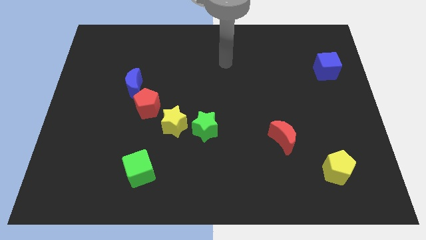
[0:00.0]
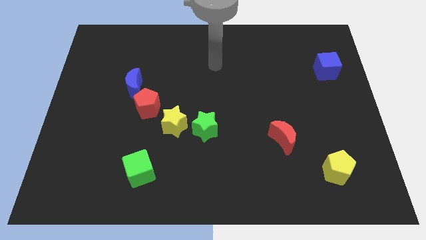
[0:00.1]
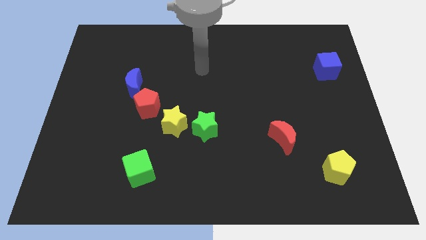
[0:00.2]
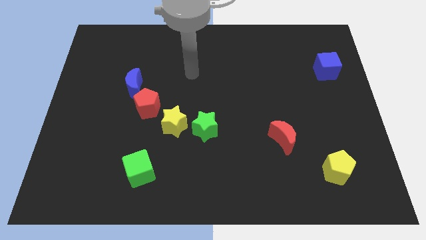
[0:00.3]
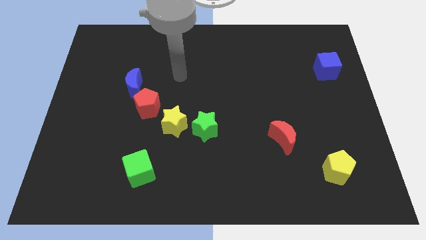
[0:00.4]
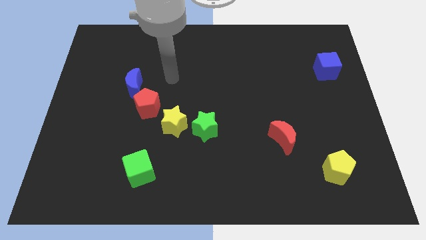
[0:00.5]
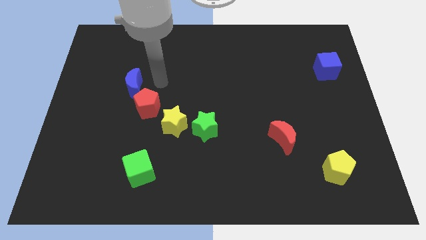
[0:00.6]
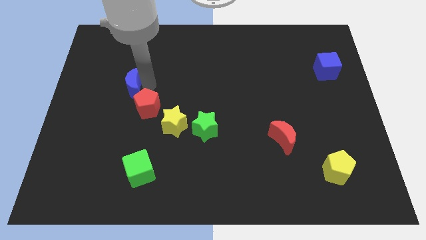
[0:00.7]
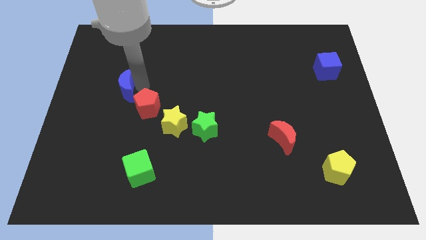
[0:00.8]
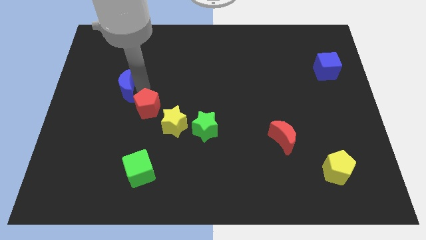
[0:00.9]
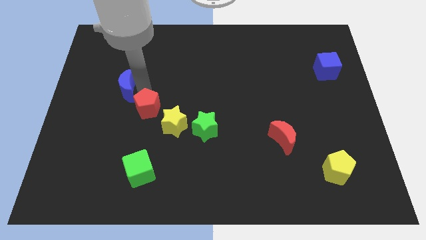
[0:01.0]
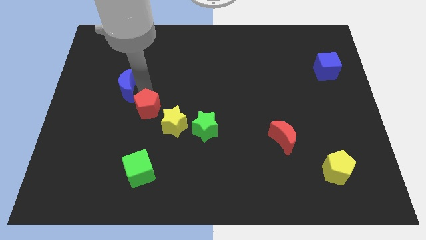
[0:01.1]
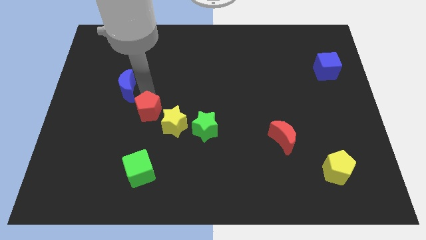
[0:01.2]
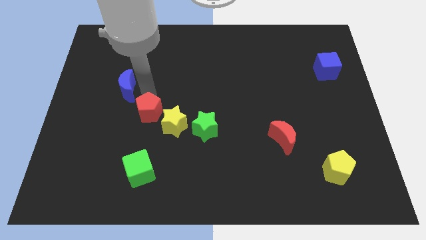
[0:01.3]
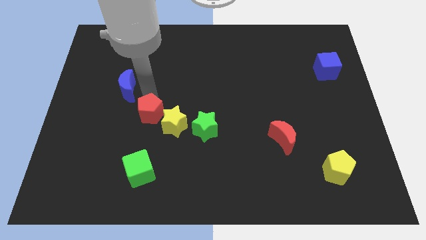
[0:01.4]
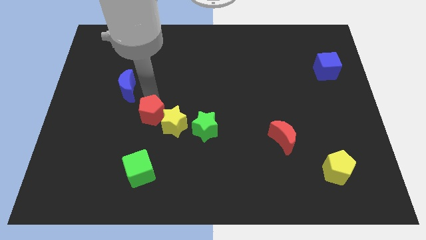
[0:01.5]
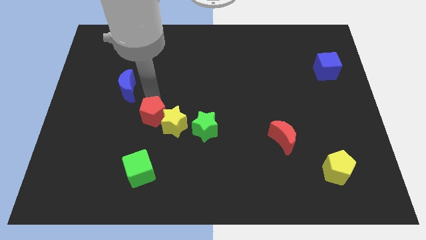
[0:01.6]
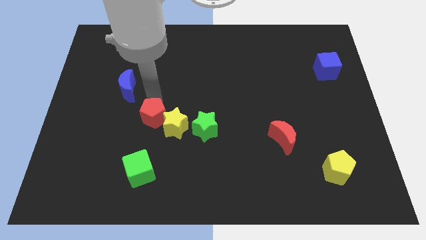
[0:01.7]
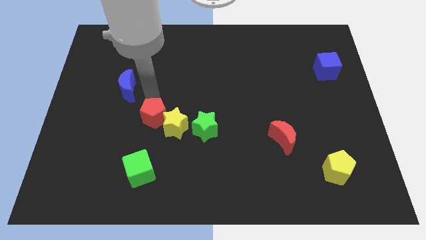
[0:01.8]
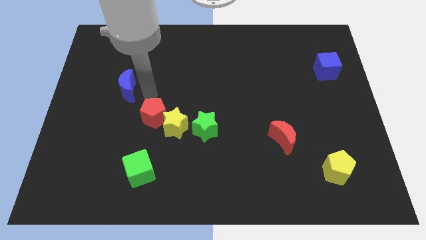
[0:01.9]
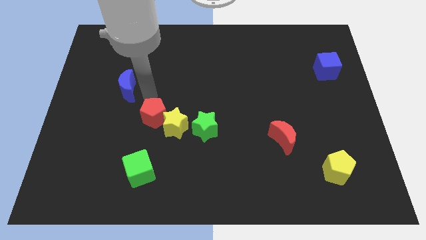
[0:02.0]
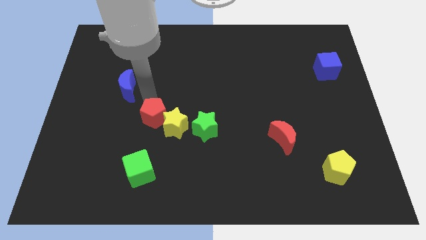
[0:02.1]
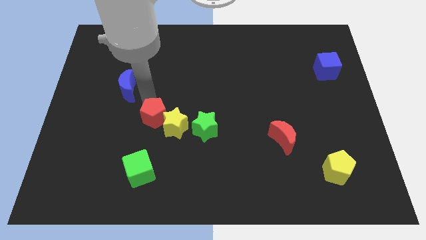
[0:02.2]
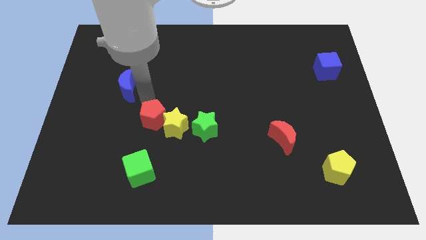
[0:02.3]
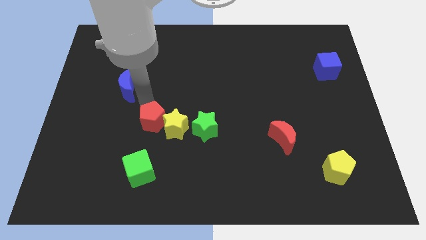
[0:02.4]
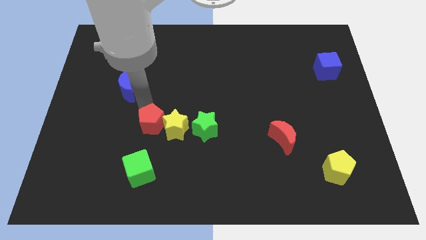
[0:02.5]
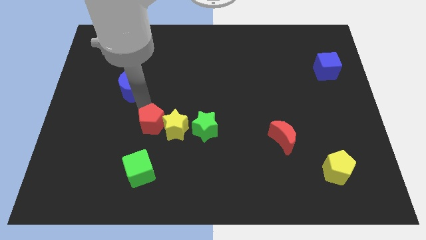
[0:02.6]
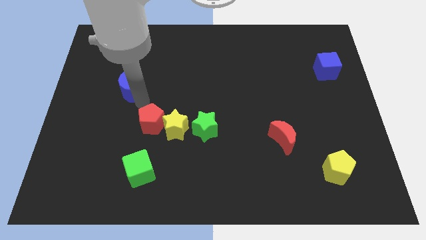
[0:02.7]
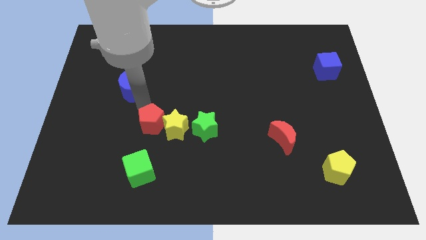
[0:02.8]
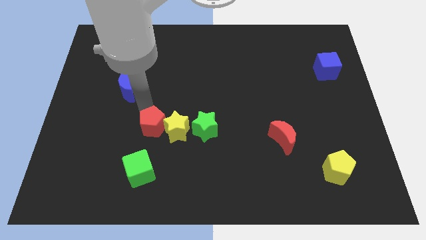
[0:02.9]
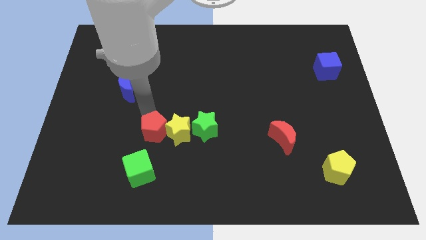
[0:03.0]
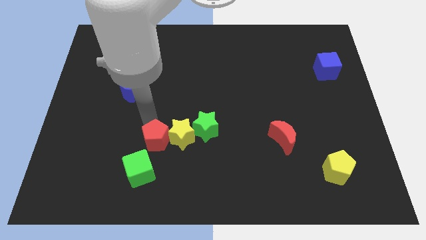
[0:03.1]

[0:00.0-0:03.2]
slide the red pentagon a little bit diagonally down and to the right

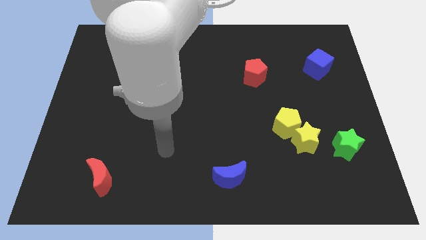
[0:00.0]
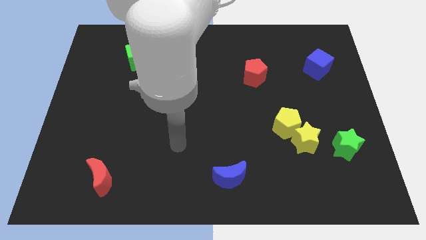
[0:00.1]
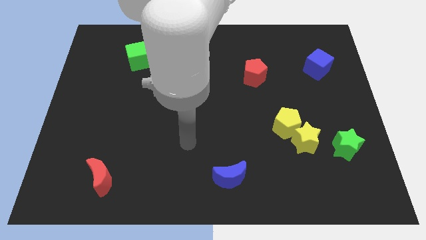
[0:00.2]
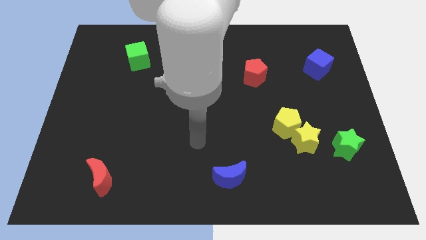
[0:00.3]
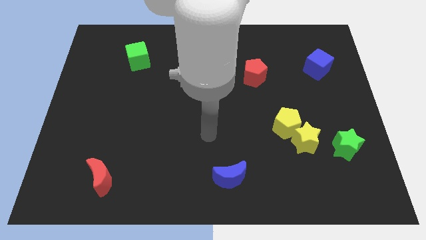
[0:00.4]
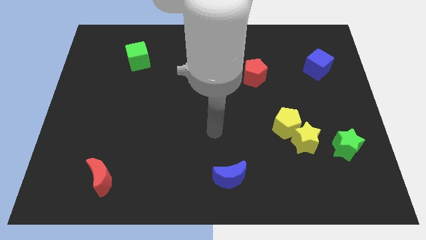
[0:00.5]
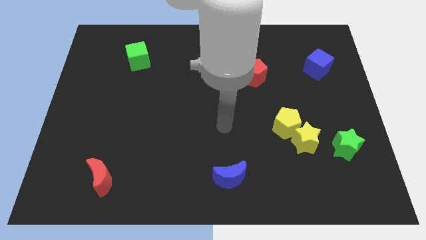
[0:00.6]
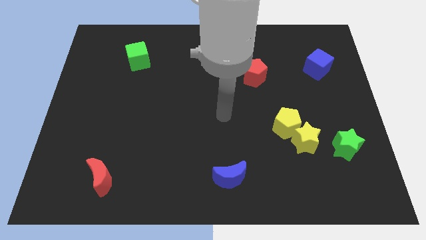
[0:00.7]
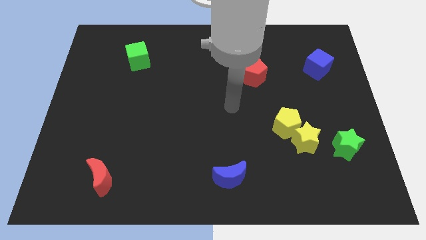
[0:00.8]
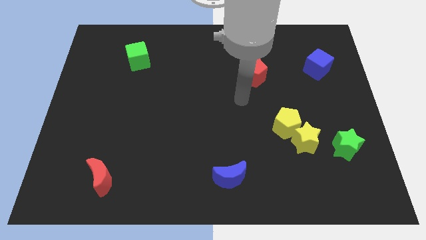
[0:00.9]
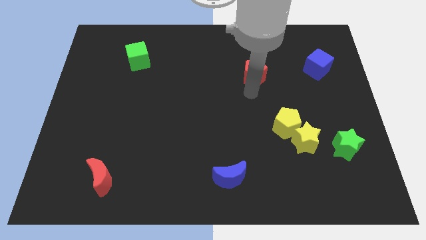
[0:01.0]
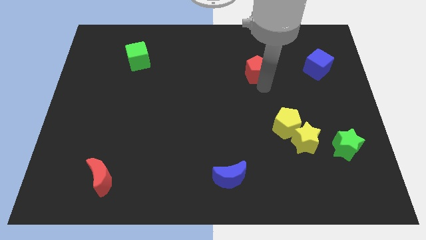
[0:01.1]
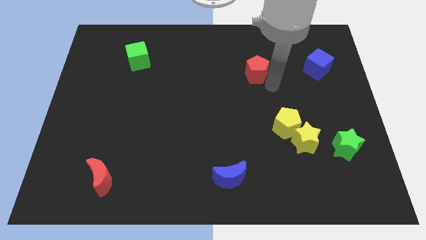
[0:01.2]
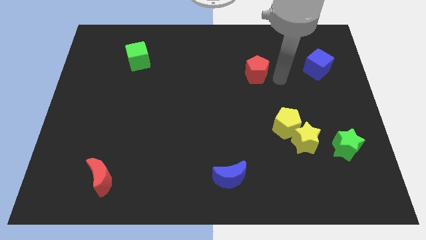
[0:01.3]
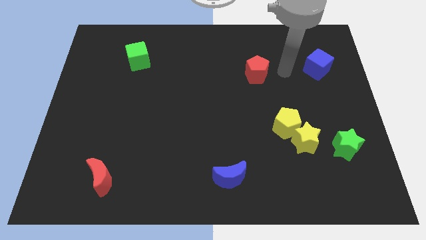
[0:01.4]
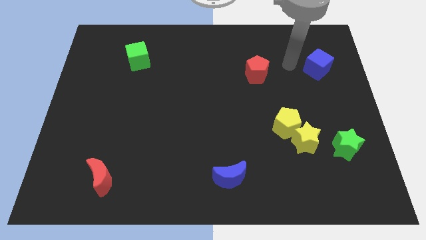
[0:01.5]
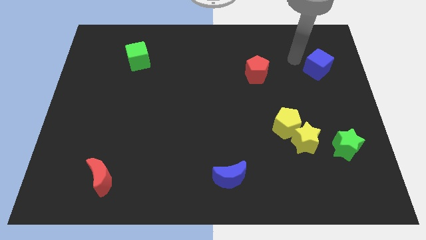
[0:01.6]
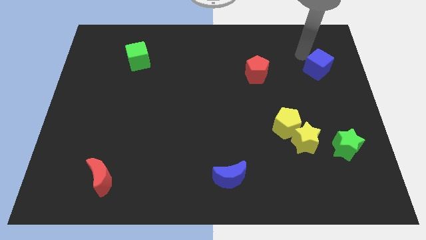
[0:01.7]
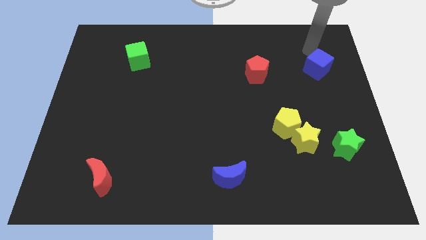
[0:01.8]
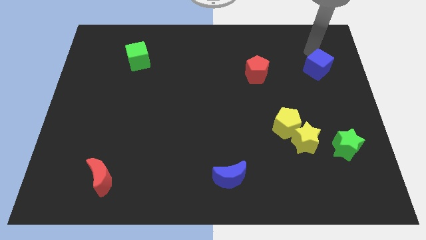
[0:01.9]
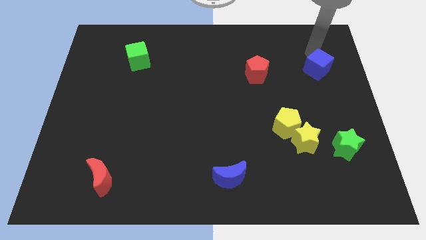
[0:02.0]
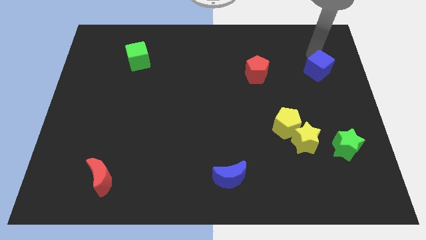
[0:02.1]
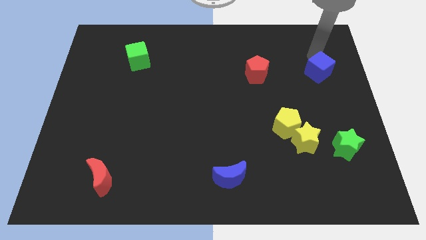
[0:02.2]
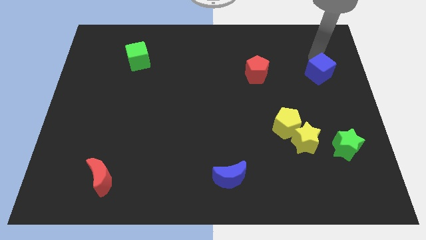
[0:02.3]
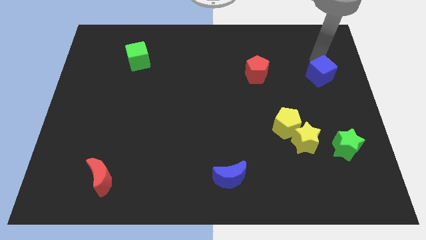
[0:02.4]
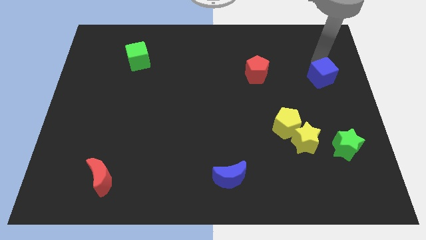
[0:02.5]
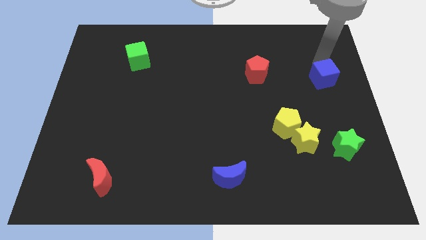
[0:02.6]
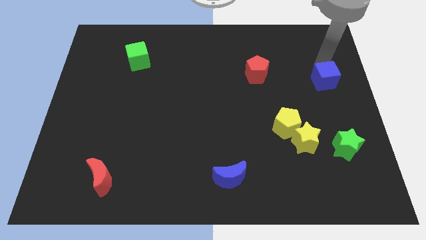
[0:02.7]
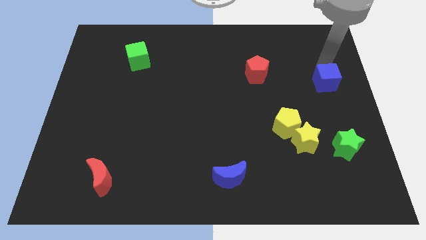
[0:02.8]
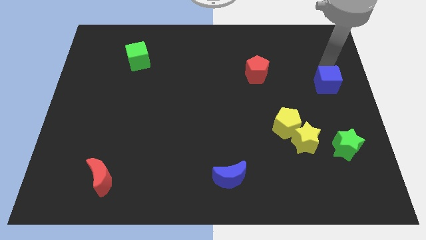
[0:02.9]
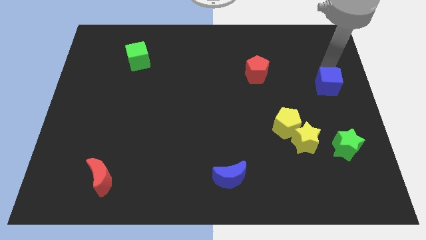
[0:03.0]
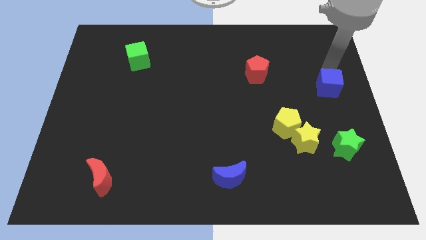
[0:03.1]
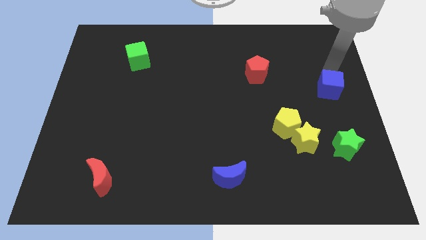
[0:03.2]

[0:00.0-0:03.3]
slide the blue cube a bit down

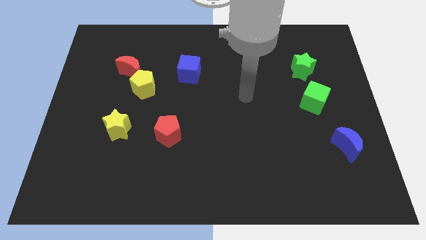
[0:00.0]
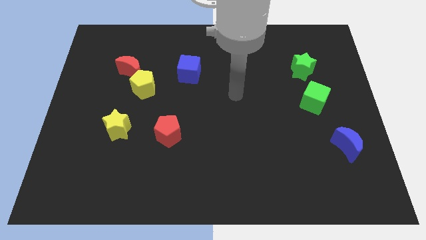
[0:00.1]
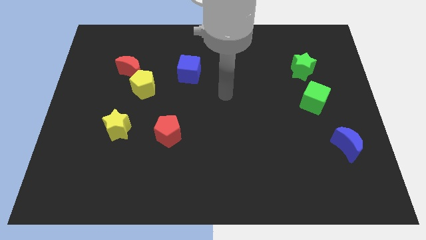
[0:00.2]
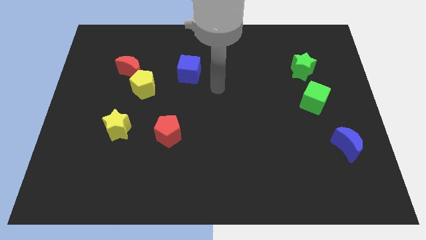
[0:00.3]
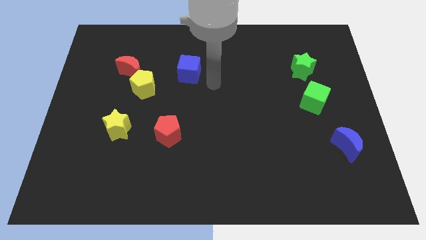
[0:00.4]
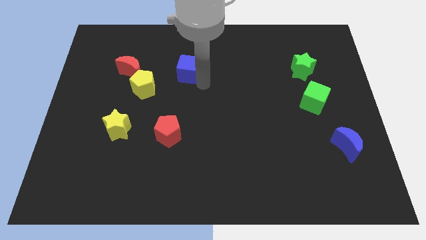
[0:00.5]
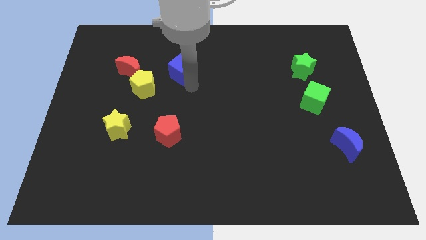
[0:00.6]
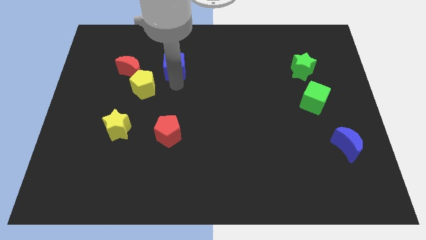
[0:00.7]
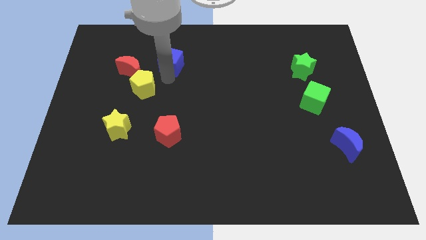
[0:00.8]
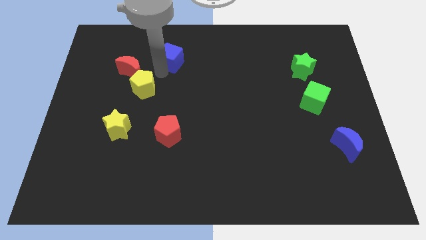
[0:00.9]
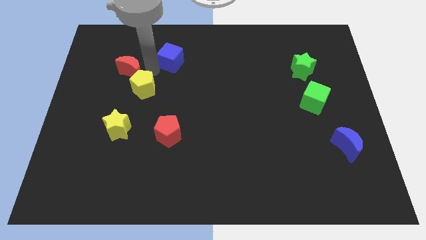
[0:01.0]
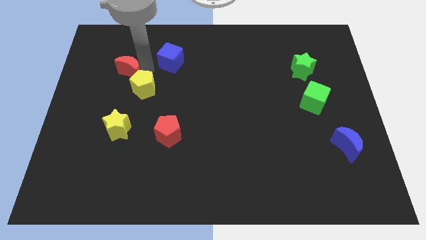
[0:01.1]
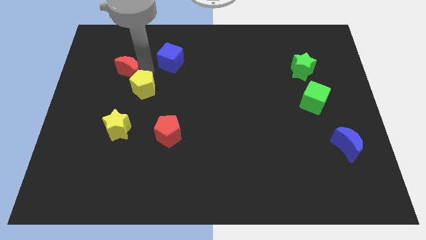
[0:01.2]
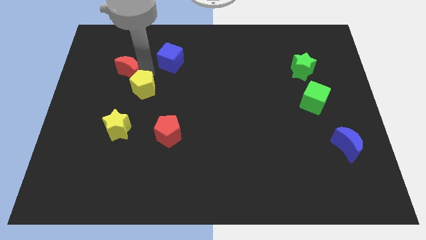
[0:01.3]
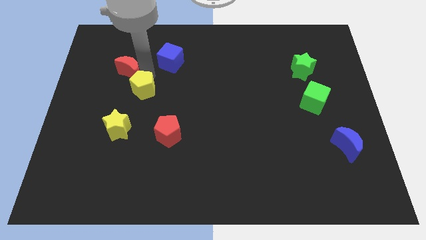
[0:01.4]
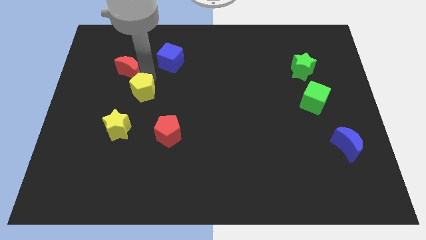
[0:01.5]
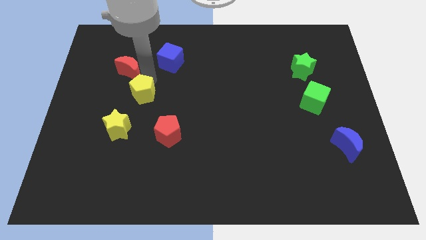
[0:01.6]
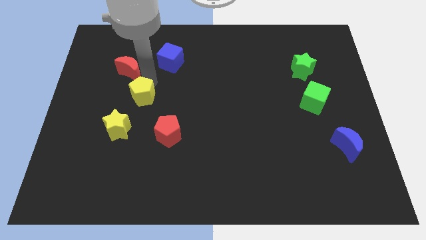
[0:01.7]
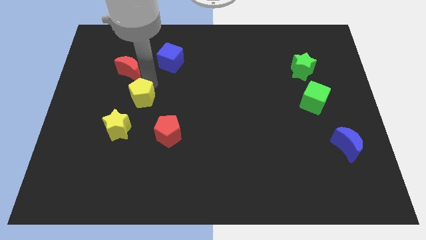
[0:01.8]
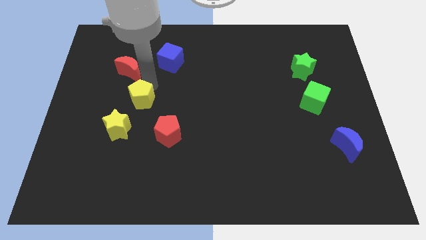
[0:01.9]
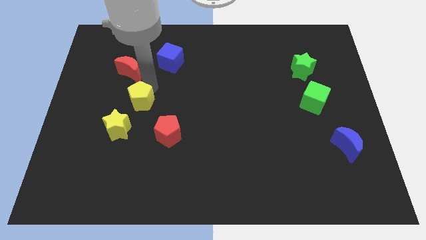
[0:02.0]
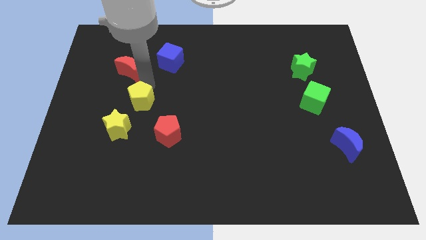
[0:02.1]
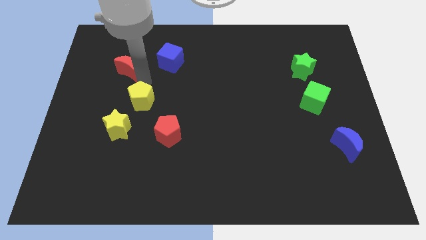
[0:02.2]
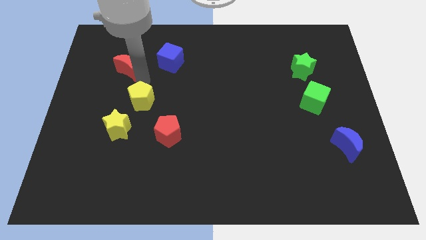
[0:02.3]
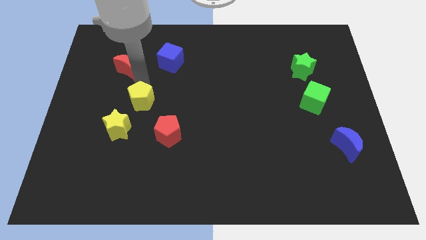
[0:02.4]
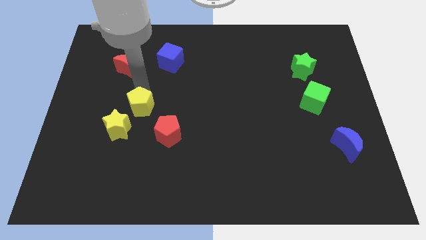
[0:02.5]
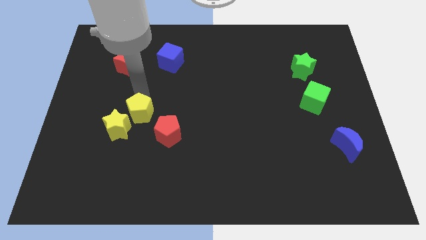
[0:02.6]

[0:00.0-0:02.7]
slightly push the yellow pentagon downwards
